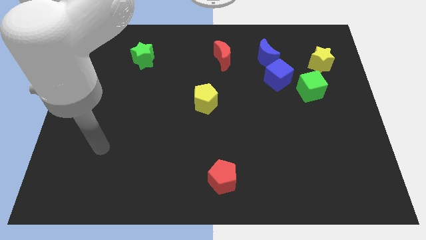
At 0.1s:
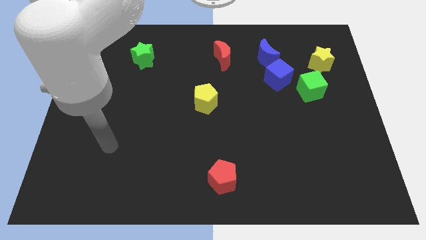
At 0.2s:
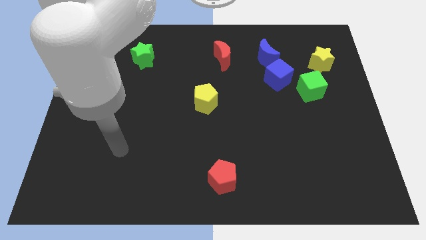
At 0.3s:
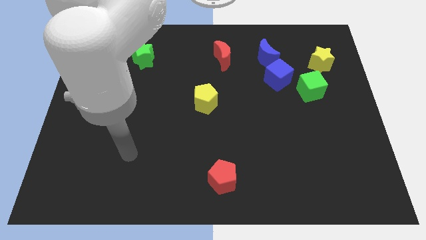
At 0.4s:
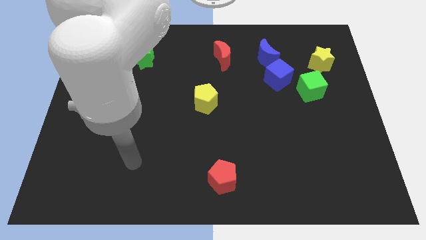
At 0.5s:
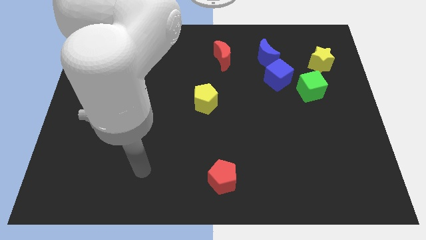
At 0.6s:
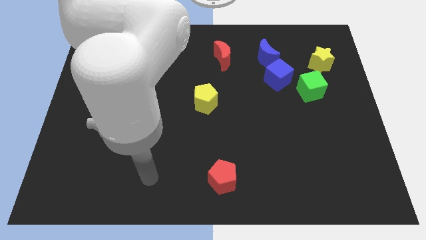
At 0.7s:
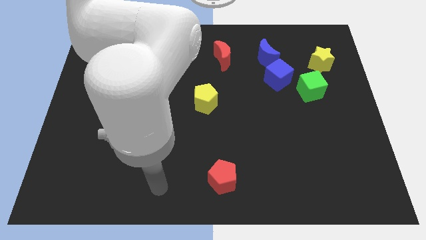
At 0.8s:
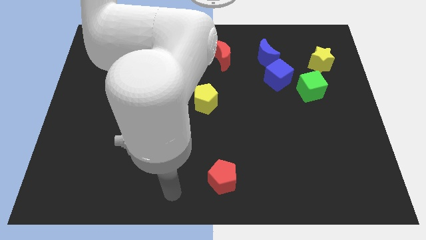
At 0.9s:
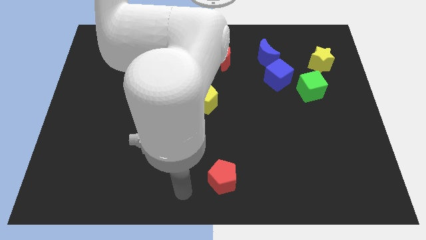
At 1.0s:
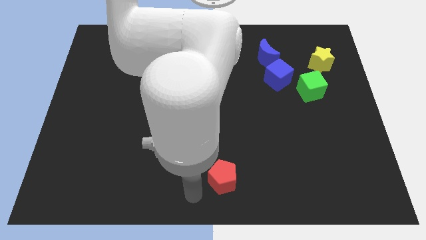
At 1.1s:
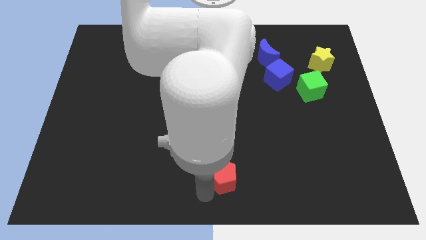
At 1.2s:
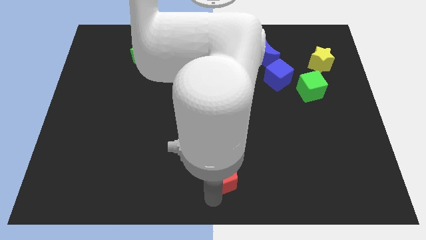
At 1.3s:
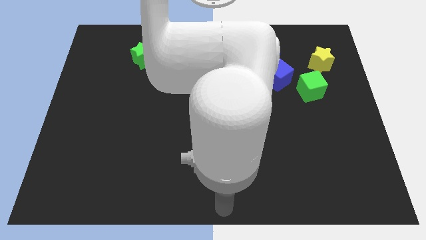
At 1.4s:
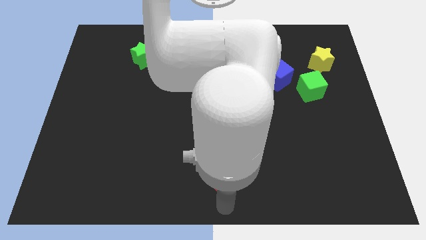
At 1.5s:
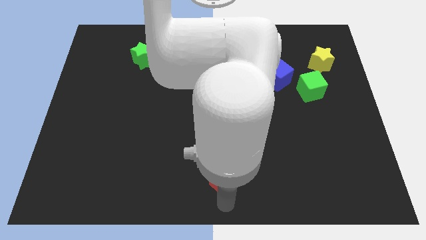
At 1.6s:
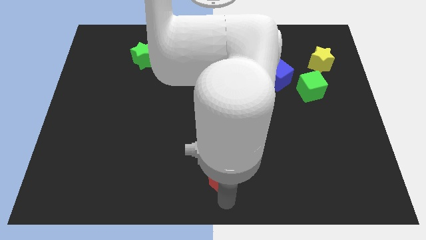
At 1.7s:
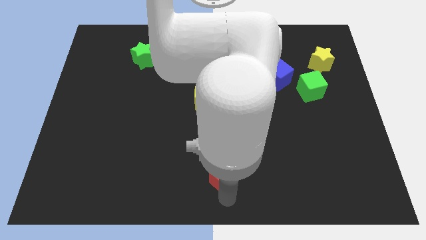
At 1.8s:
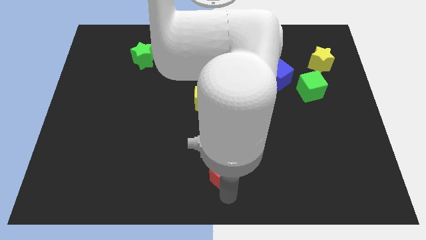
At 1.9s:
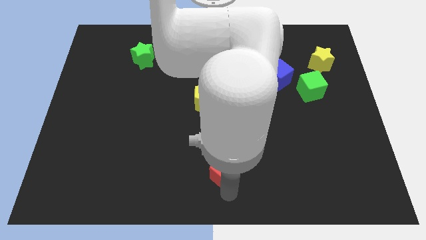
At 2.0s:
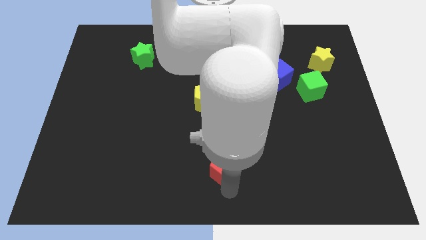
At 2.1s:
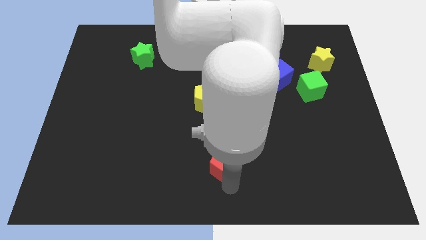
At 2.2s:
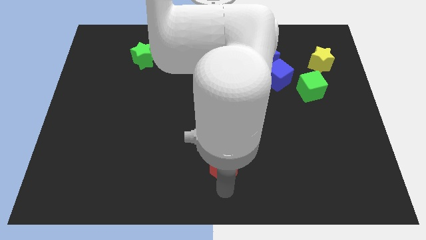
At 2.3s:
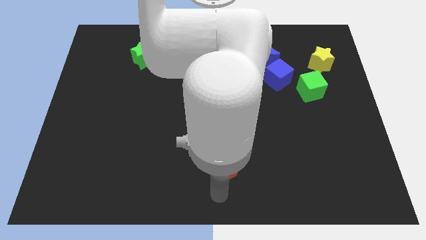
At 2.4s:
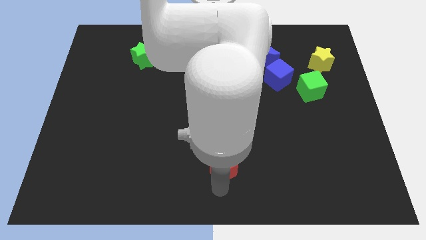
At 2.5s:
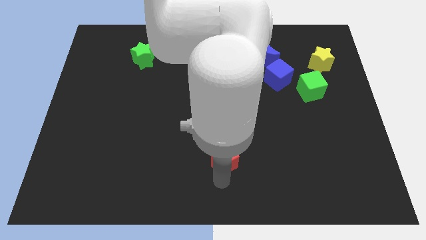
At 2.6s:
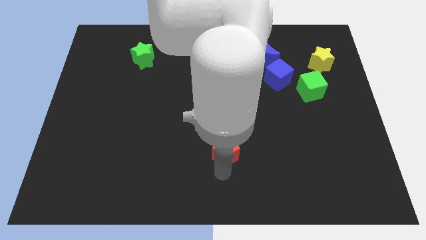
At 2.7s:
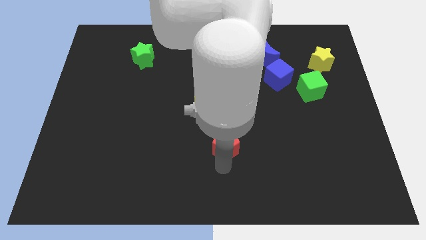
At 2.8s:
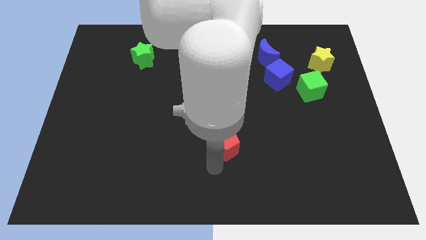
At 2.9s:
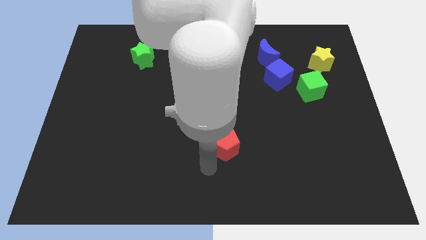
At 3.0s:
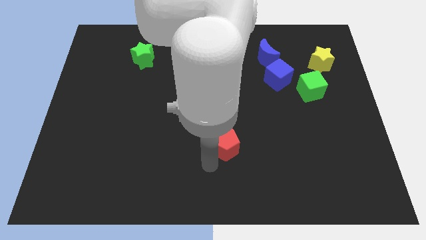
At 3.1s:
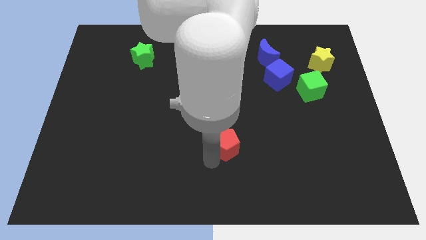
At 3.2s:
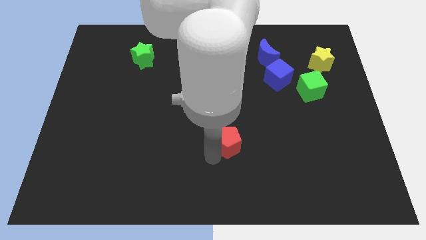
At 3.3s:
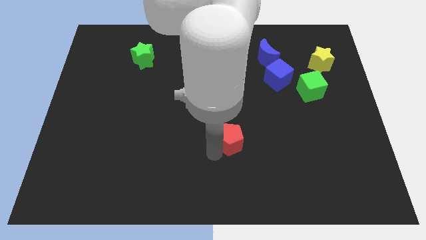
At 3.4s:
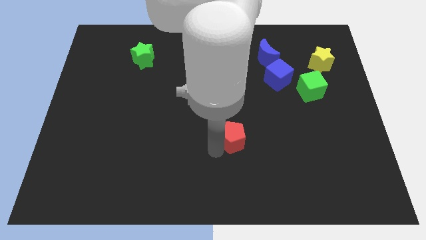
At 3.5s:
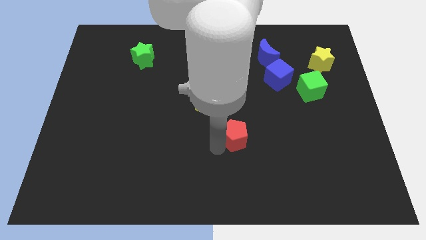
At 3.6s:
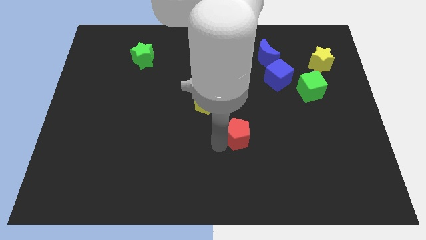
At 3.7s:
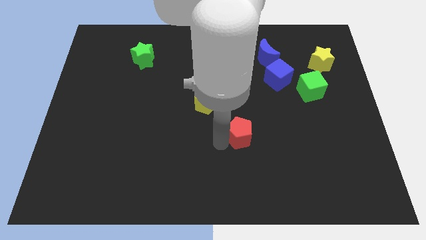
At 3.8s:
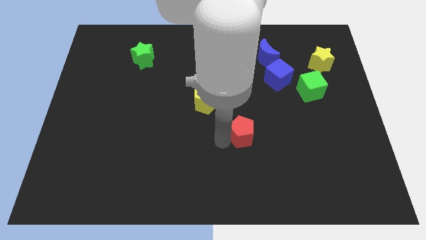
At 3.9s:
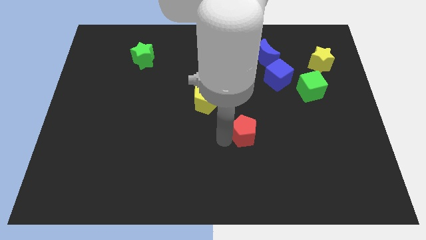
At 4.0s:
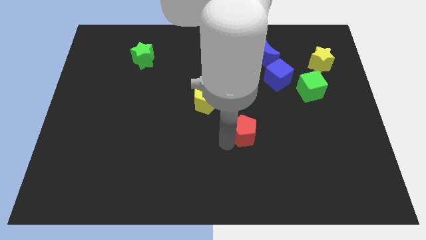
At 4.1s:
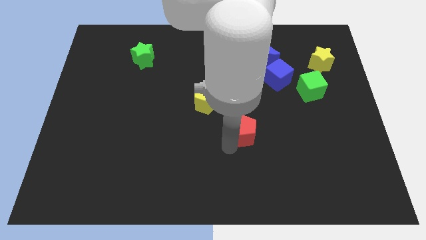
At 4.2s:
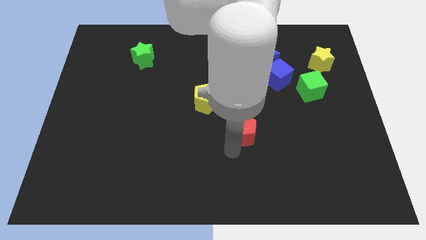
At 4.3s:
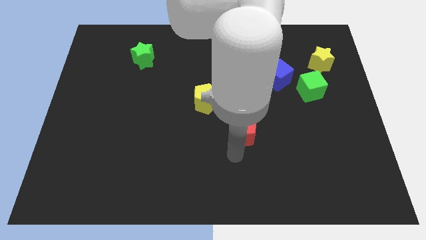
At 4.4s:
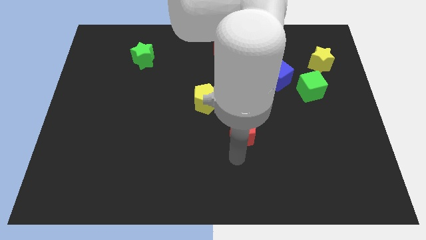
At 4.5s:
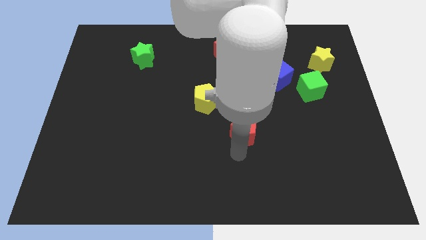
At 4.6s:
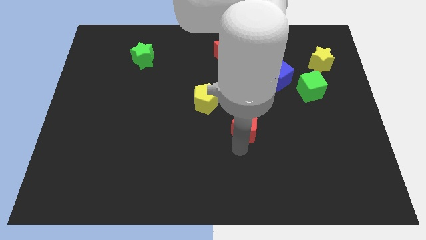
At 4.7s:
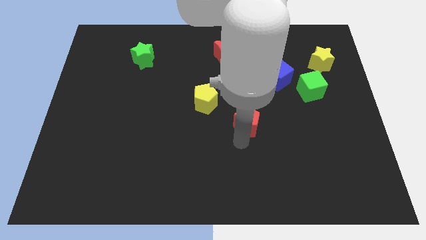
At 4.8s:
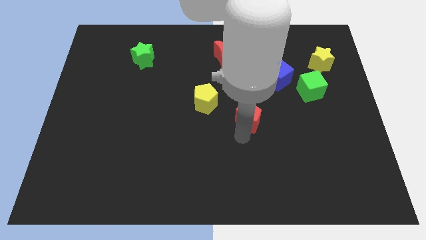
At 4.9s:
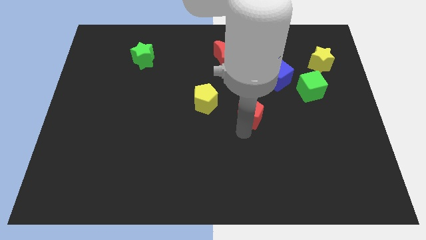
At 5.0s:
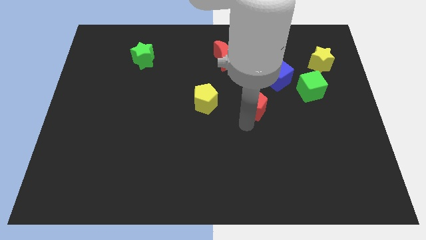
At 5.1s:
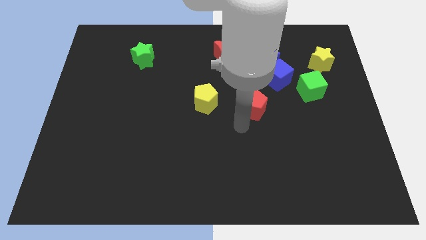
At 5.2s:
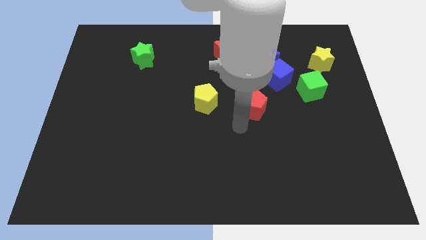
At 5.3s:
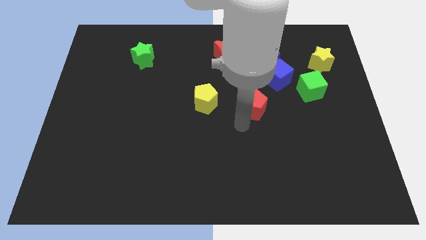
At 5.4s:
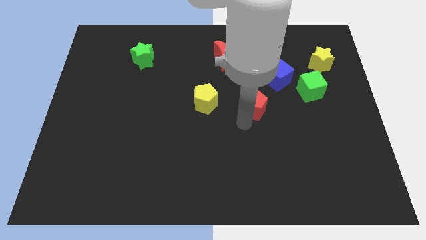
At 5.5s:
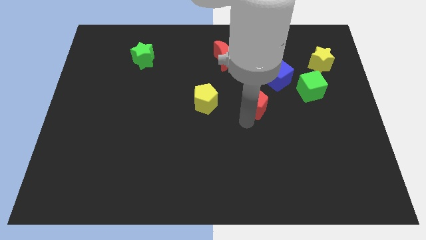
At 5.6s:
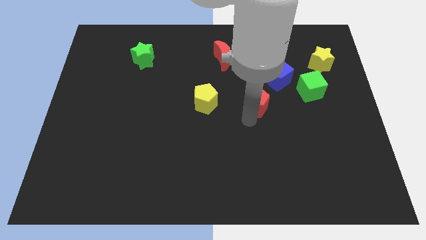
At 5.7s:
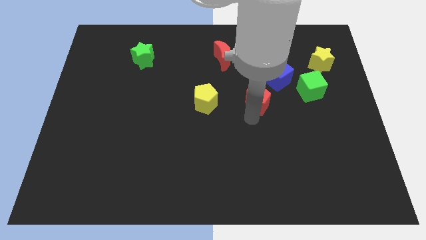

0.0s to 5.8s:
slide the red pentagon to the bottom side of the blue moon

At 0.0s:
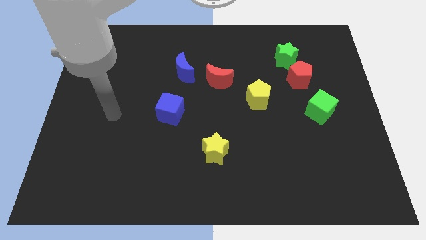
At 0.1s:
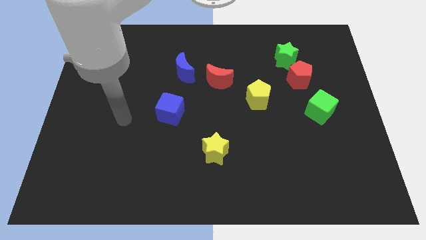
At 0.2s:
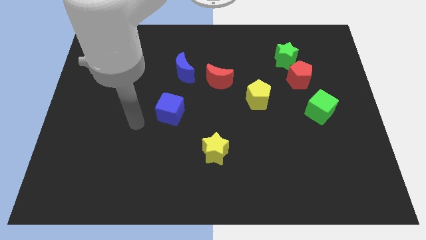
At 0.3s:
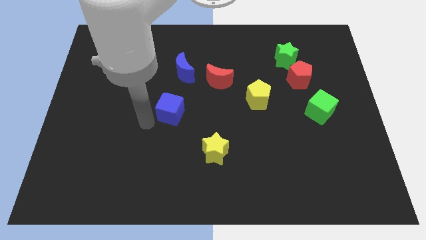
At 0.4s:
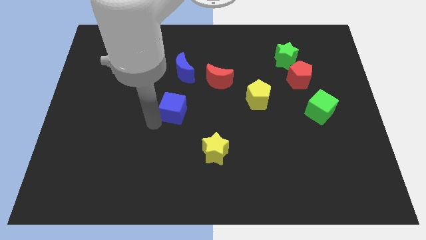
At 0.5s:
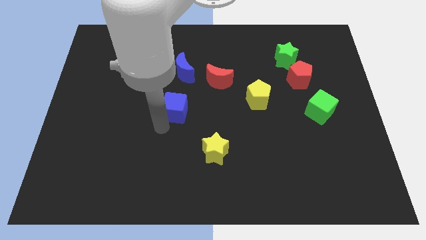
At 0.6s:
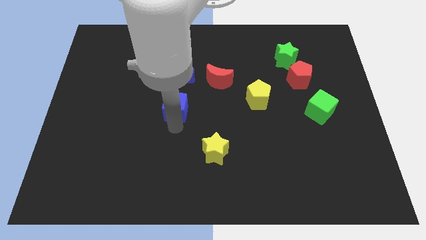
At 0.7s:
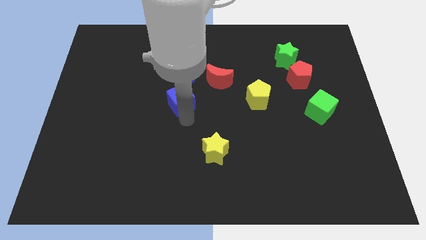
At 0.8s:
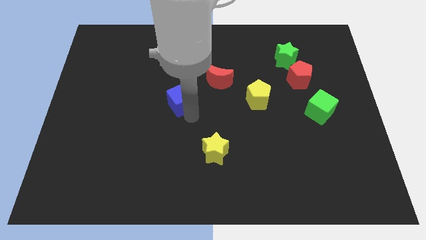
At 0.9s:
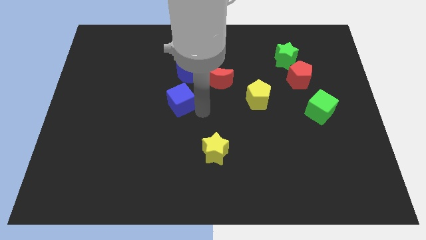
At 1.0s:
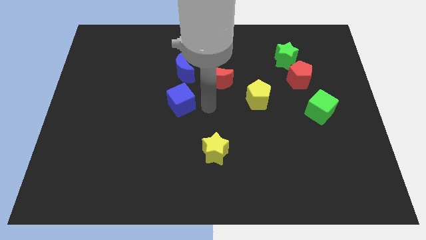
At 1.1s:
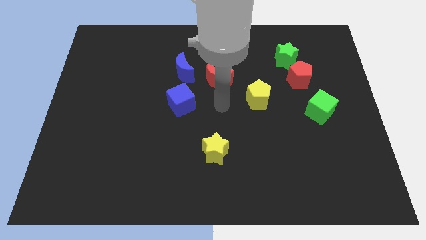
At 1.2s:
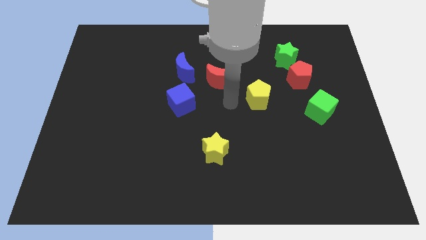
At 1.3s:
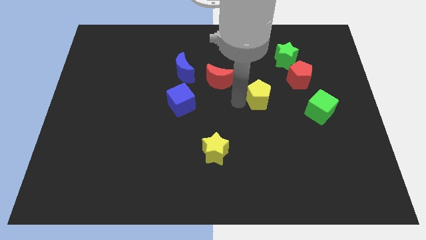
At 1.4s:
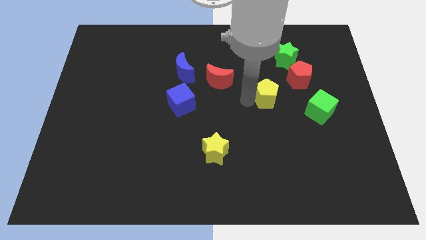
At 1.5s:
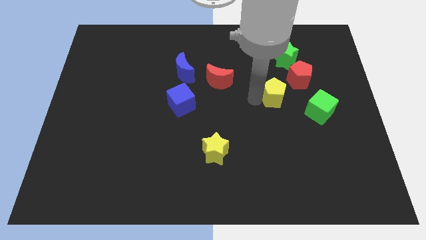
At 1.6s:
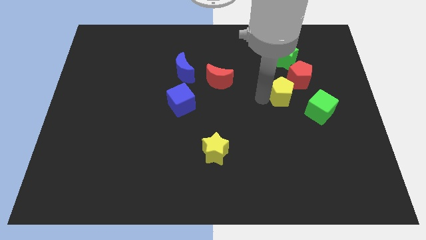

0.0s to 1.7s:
put the yellow pentagon to the top left of the green cube

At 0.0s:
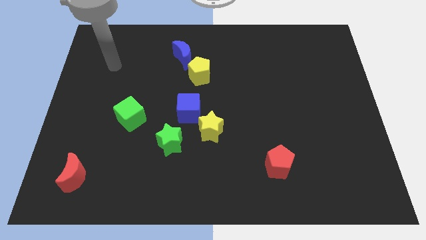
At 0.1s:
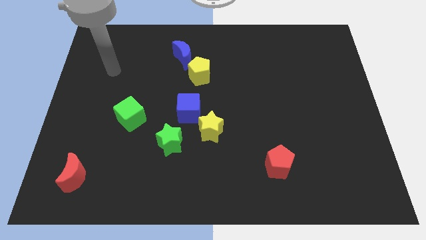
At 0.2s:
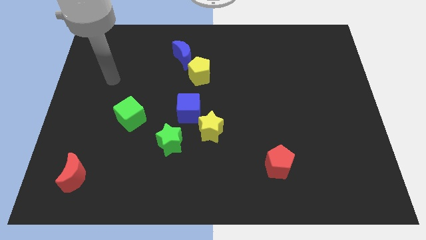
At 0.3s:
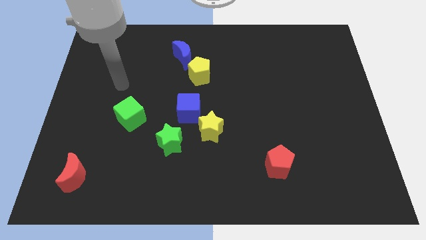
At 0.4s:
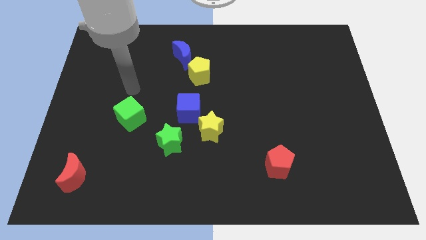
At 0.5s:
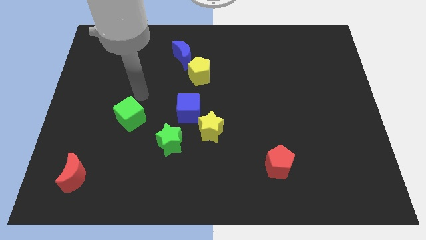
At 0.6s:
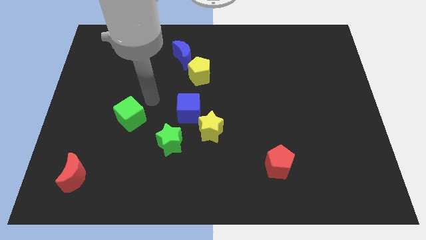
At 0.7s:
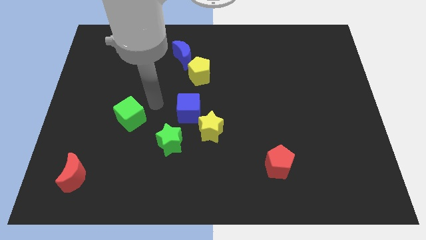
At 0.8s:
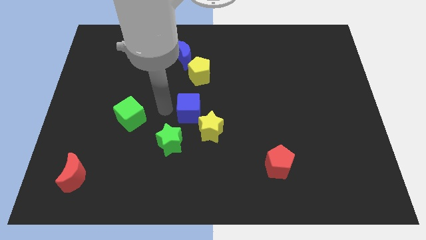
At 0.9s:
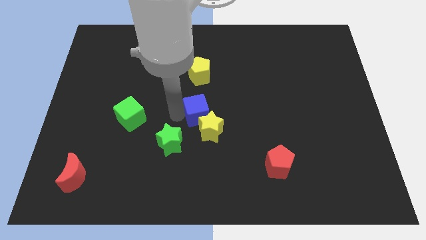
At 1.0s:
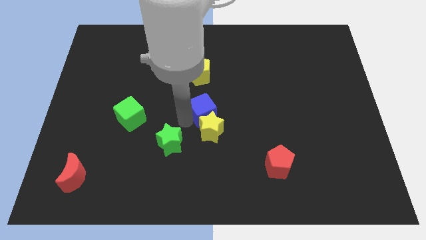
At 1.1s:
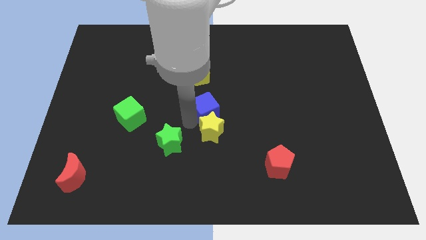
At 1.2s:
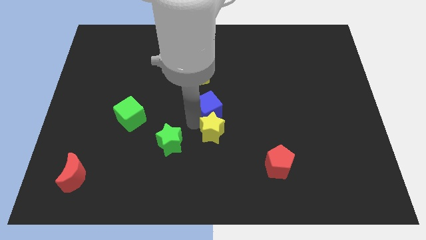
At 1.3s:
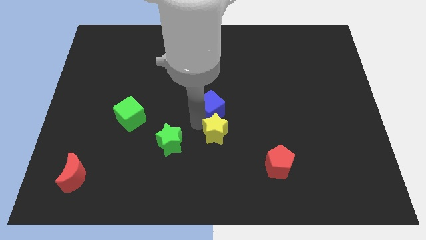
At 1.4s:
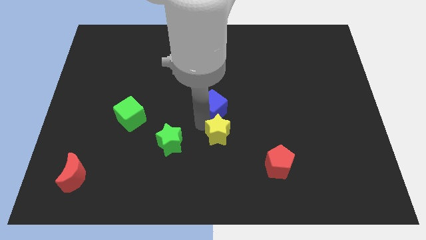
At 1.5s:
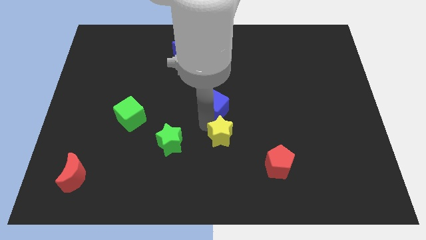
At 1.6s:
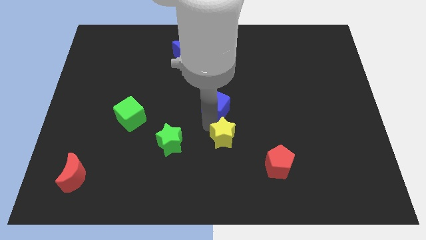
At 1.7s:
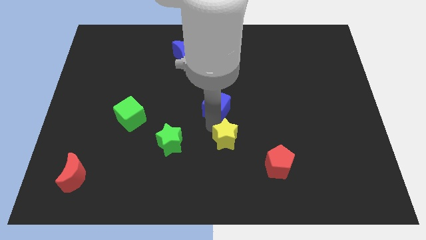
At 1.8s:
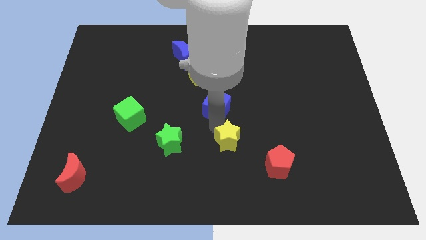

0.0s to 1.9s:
move the yellow star to the top left side of the red pentagon
